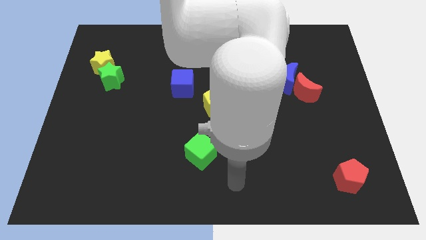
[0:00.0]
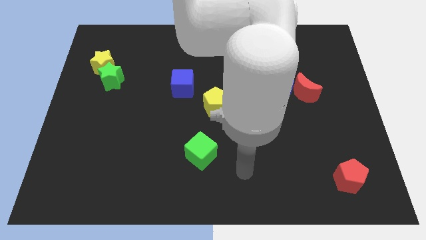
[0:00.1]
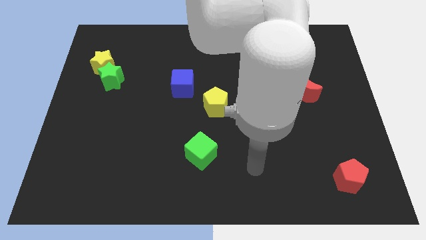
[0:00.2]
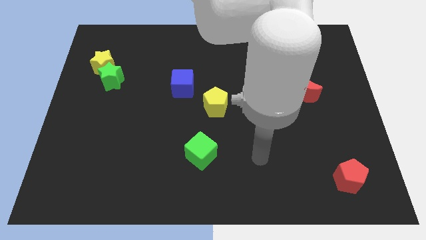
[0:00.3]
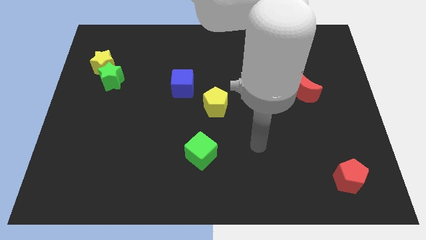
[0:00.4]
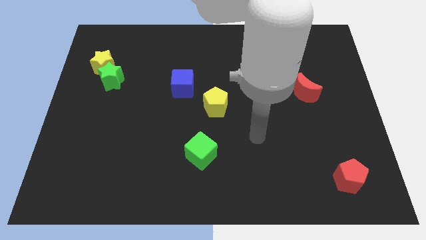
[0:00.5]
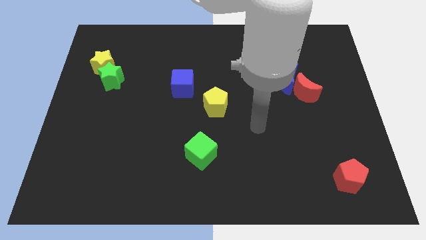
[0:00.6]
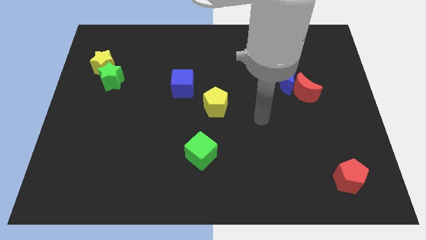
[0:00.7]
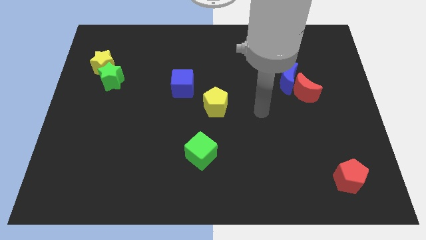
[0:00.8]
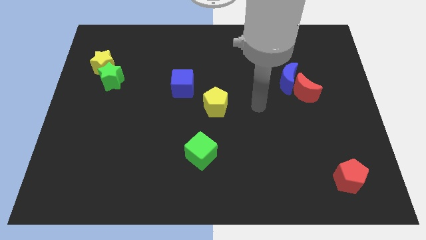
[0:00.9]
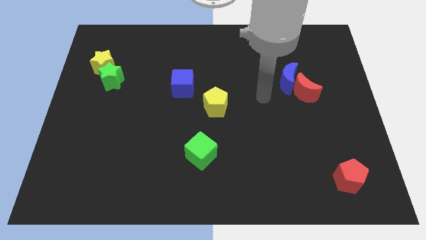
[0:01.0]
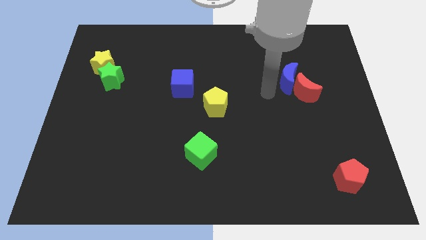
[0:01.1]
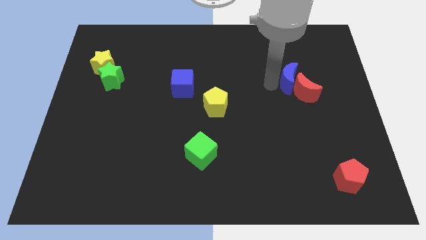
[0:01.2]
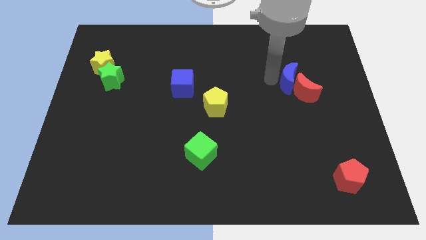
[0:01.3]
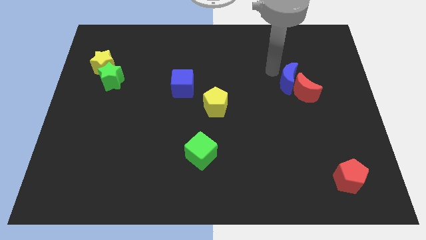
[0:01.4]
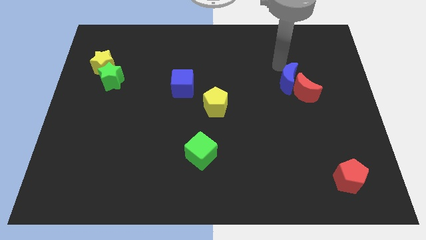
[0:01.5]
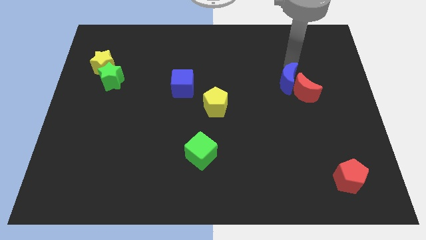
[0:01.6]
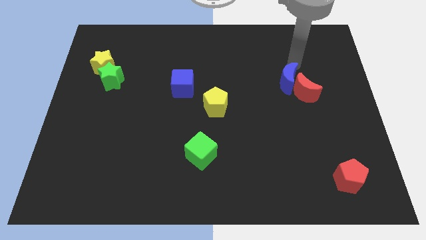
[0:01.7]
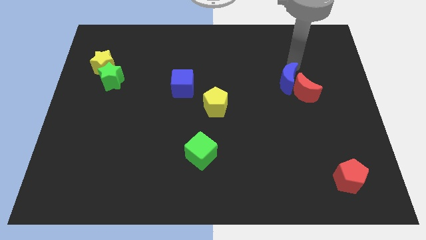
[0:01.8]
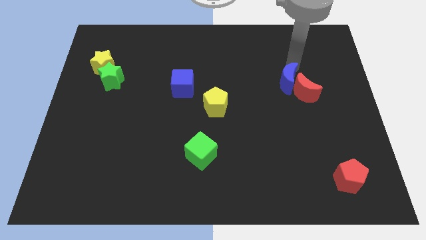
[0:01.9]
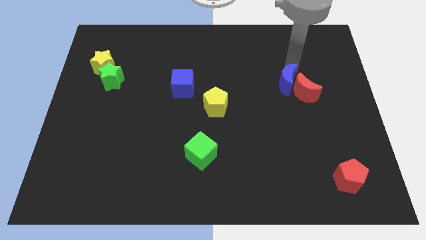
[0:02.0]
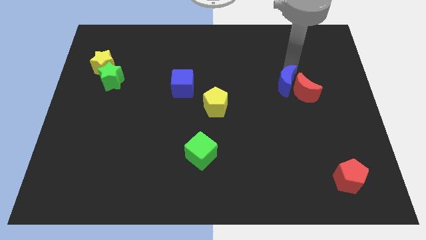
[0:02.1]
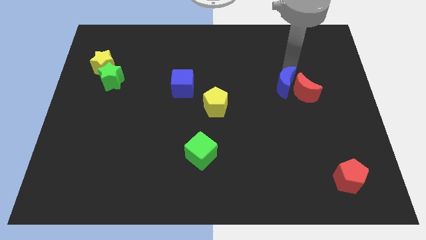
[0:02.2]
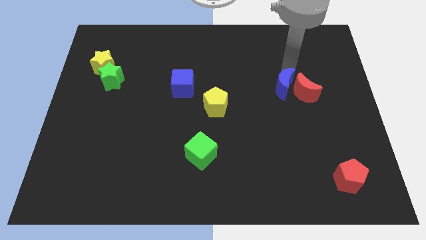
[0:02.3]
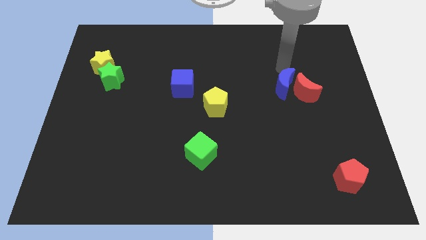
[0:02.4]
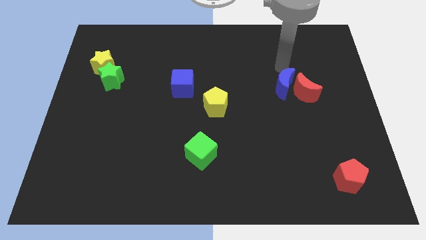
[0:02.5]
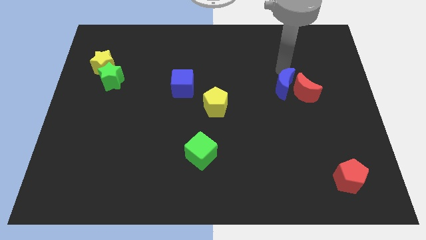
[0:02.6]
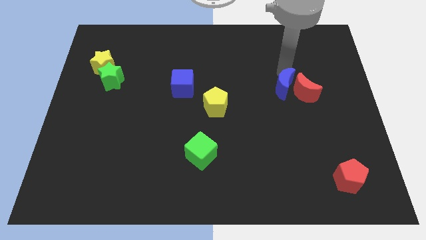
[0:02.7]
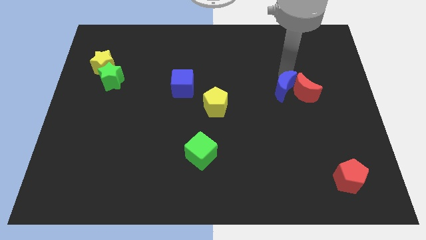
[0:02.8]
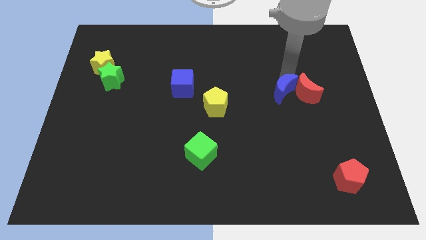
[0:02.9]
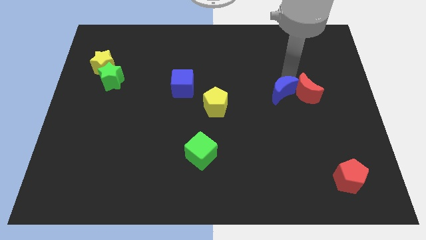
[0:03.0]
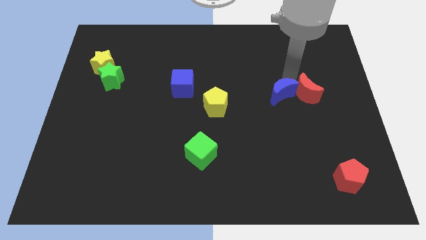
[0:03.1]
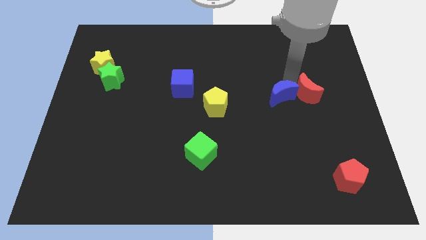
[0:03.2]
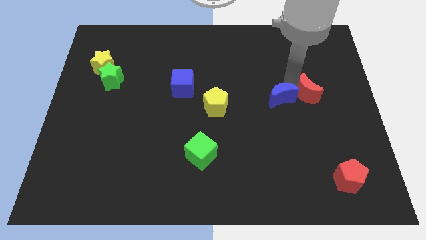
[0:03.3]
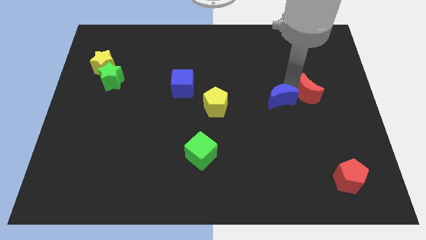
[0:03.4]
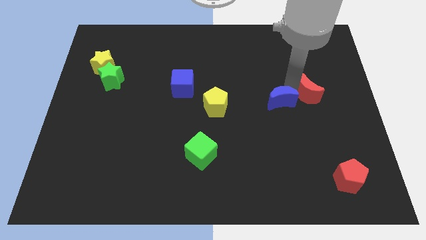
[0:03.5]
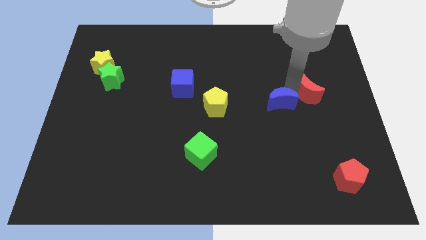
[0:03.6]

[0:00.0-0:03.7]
slide the blue moon down a little bit

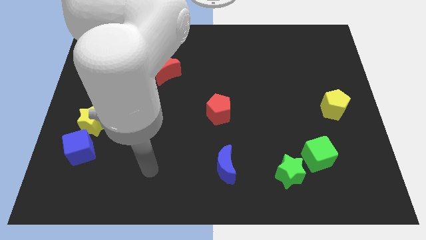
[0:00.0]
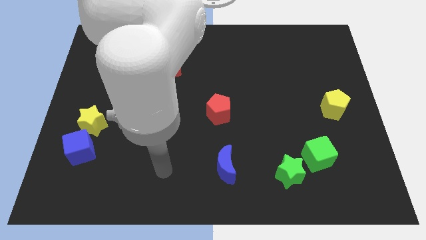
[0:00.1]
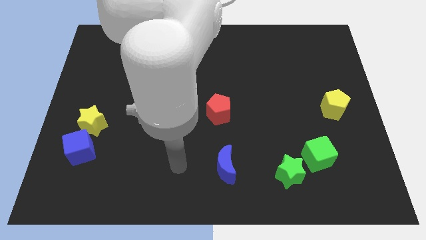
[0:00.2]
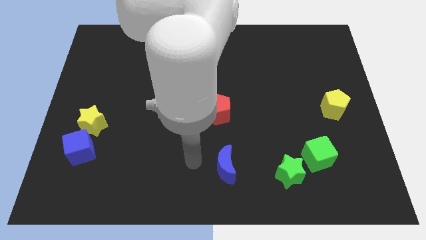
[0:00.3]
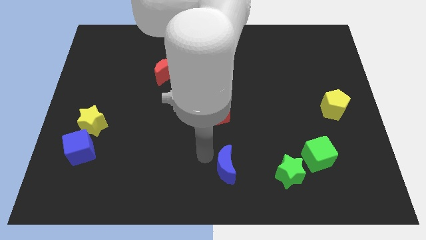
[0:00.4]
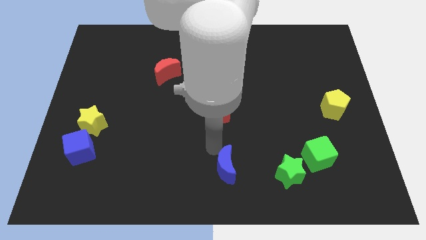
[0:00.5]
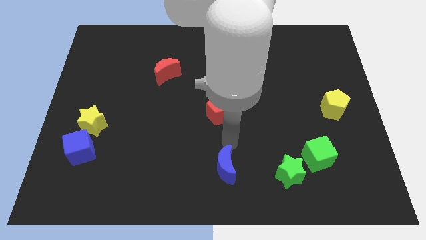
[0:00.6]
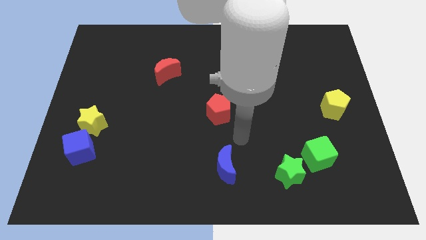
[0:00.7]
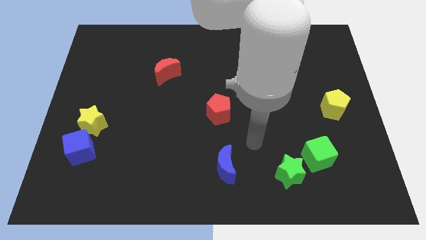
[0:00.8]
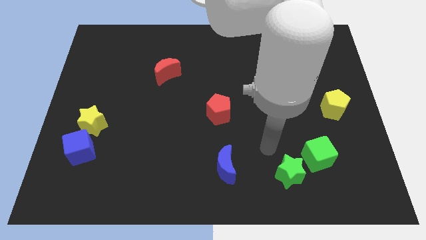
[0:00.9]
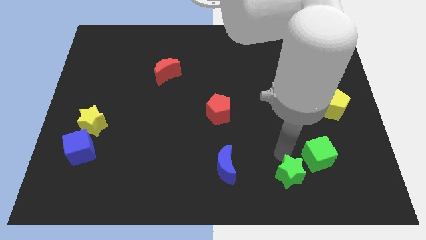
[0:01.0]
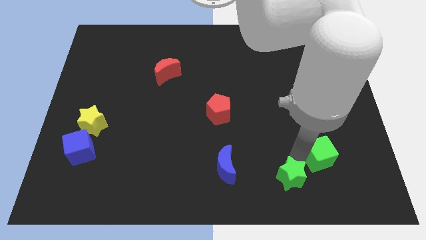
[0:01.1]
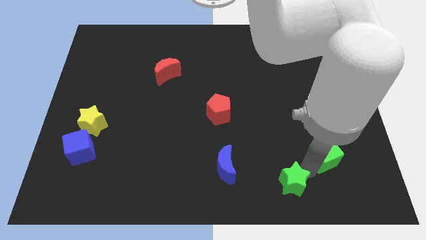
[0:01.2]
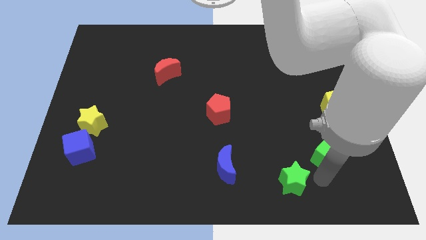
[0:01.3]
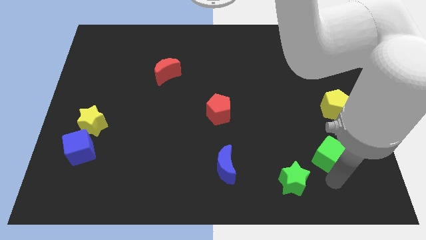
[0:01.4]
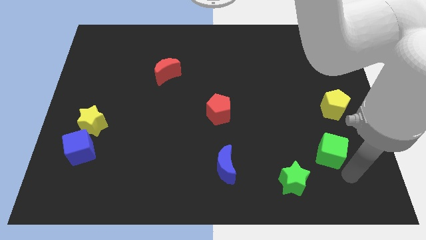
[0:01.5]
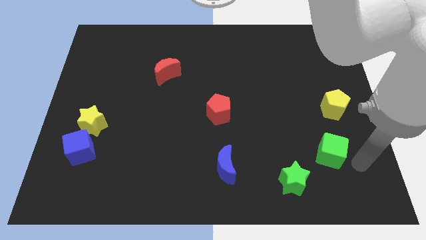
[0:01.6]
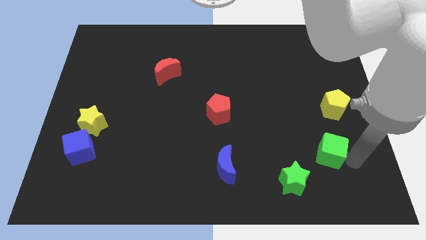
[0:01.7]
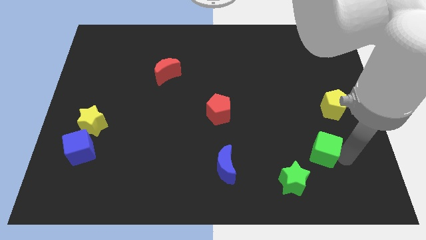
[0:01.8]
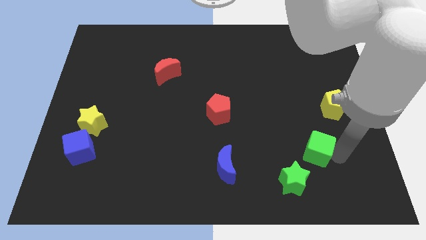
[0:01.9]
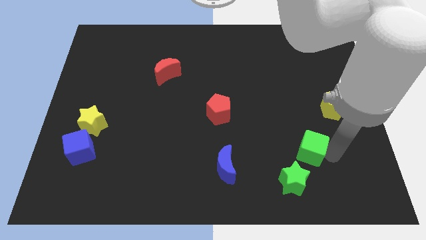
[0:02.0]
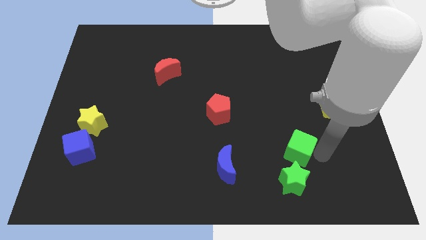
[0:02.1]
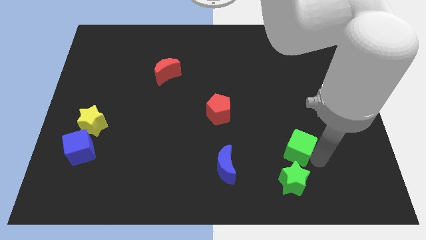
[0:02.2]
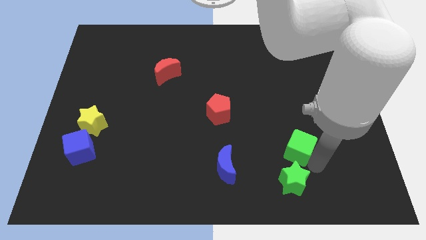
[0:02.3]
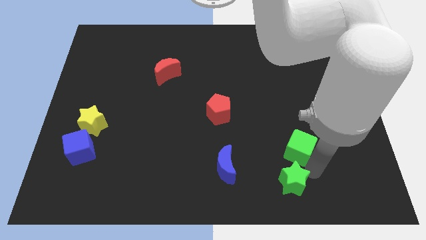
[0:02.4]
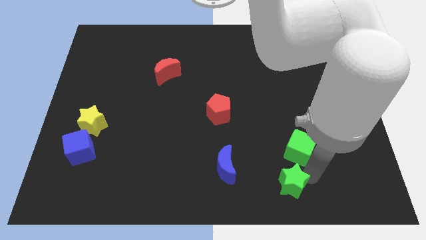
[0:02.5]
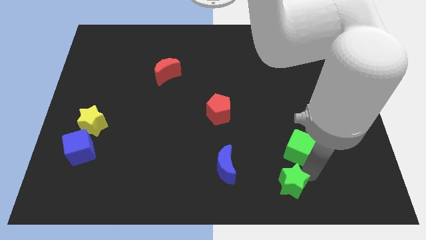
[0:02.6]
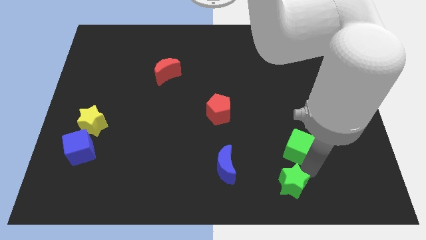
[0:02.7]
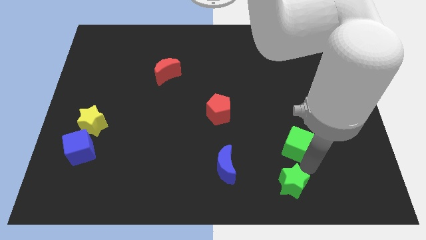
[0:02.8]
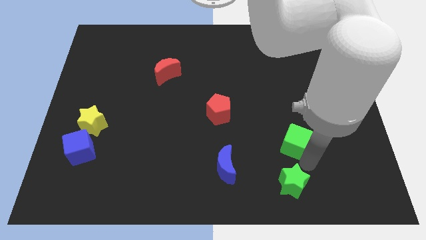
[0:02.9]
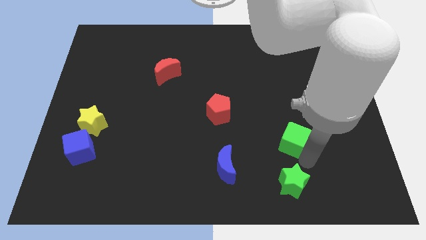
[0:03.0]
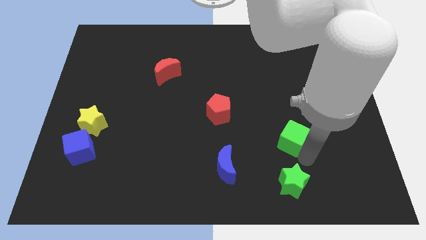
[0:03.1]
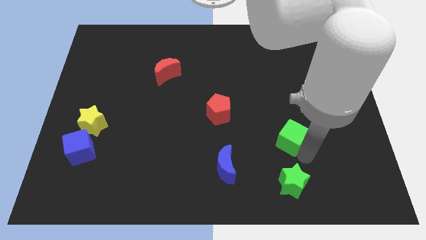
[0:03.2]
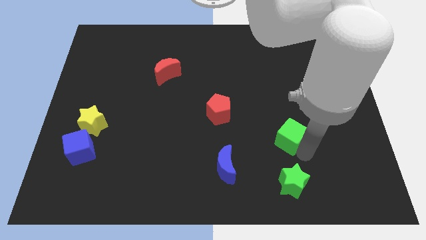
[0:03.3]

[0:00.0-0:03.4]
slide the green cube upwards and to the left diagonally a bit

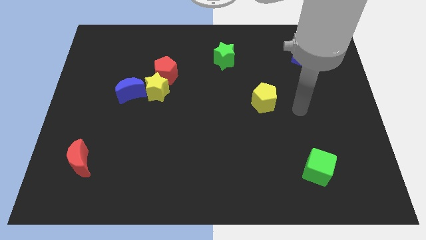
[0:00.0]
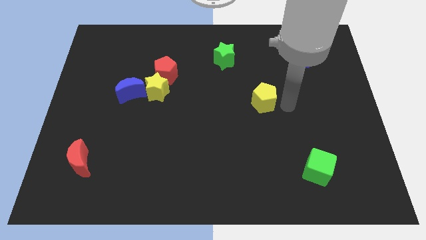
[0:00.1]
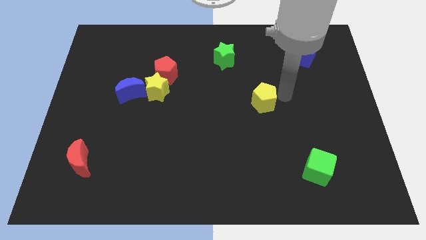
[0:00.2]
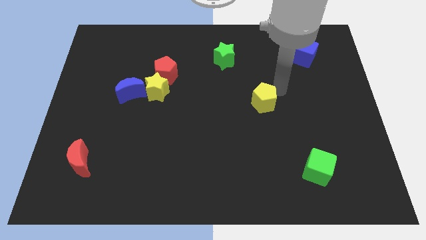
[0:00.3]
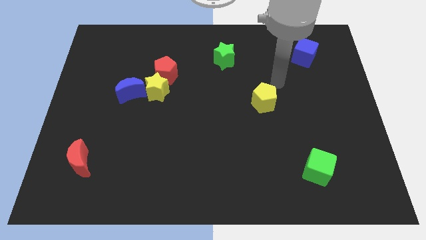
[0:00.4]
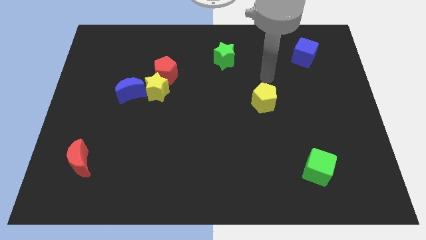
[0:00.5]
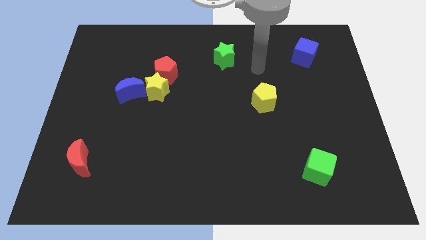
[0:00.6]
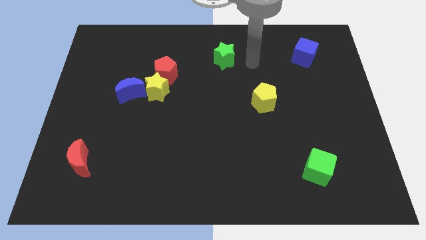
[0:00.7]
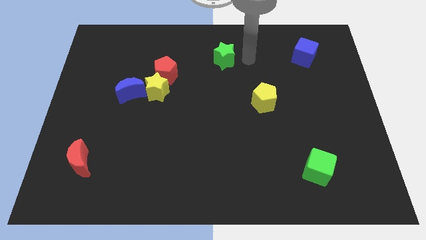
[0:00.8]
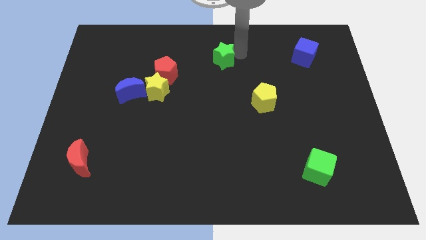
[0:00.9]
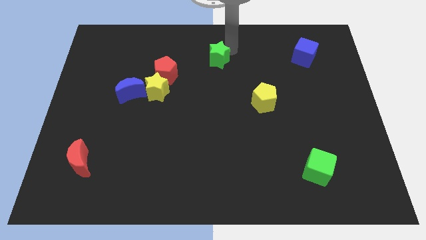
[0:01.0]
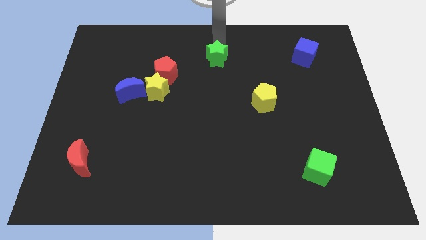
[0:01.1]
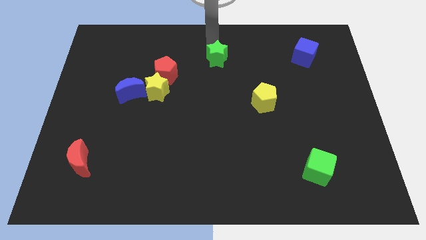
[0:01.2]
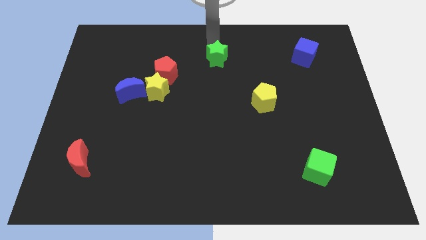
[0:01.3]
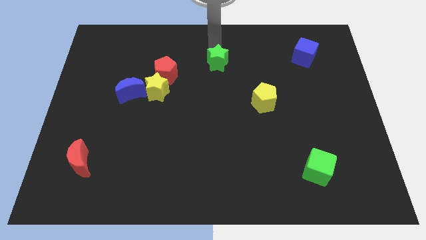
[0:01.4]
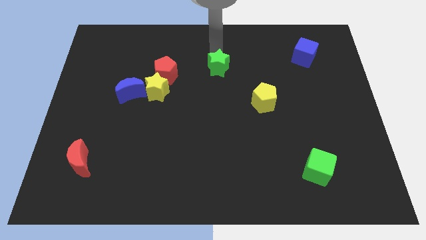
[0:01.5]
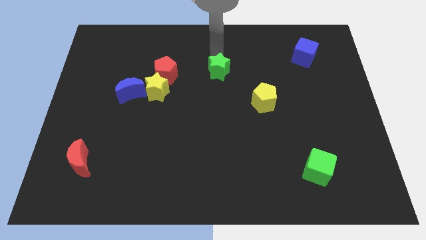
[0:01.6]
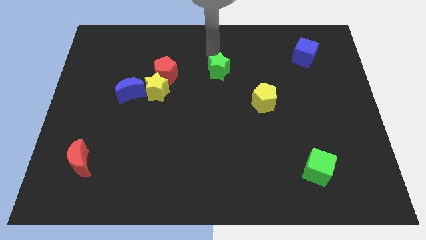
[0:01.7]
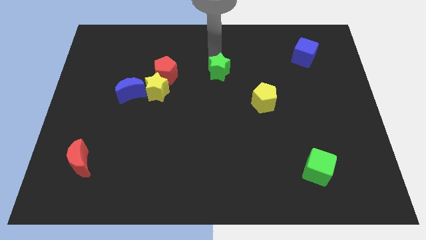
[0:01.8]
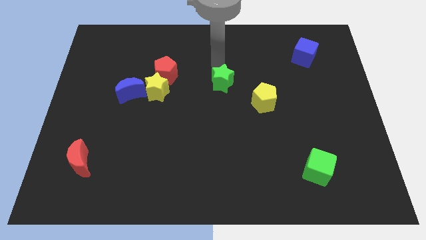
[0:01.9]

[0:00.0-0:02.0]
slightly push the green star downwards
